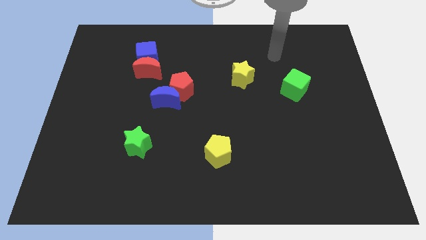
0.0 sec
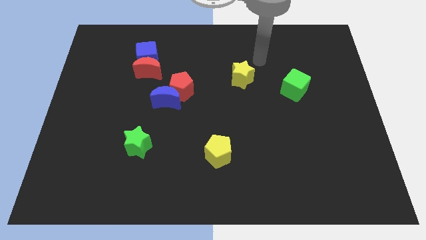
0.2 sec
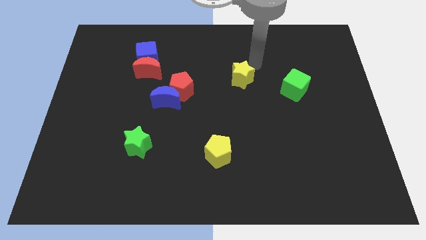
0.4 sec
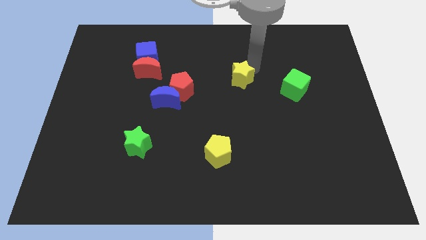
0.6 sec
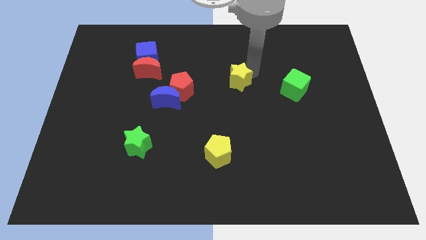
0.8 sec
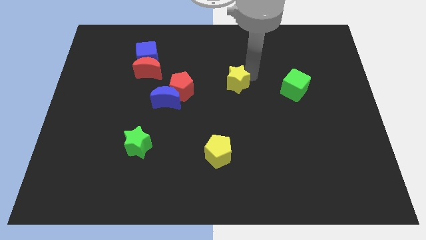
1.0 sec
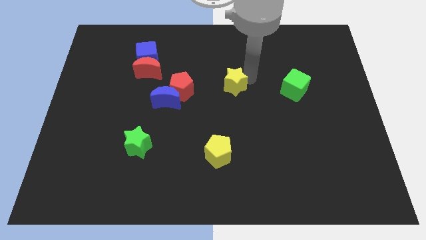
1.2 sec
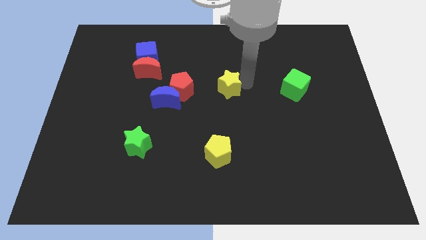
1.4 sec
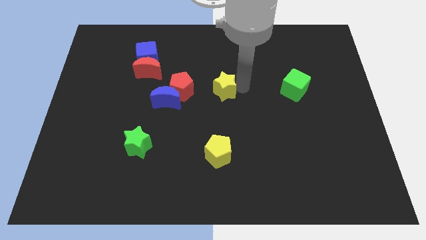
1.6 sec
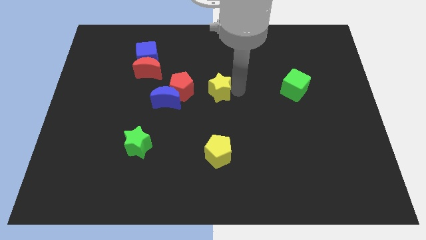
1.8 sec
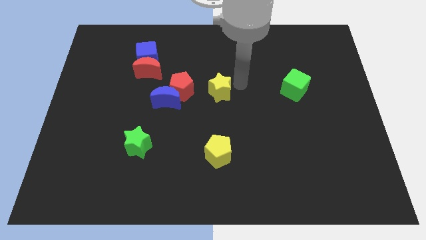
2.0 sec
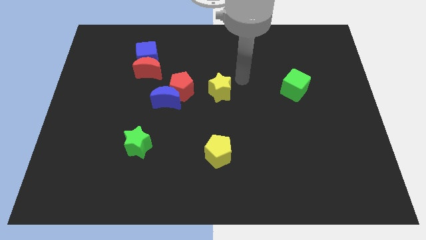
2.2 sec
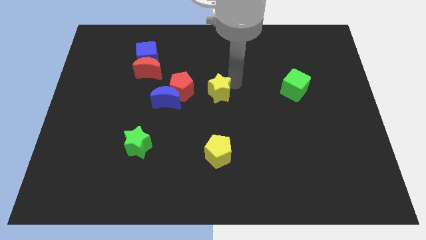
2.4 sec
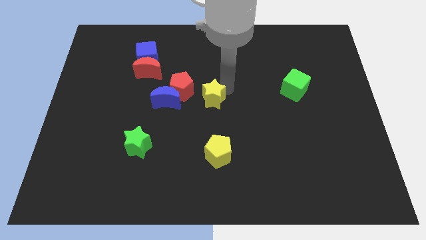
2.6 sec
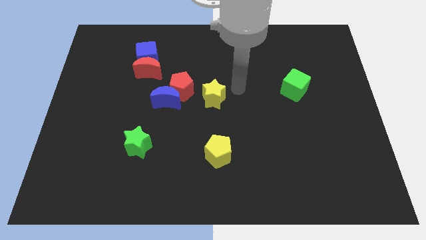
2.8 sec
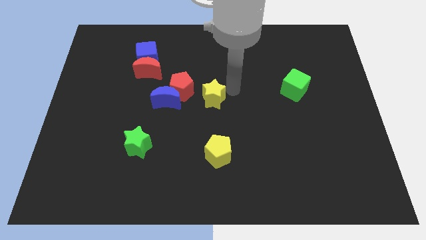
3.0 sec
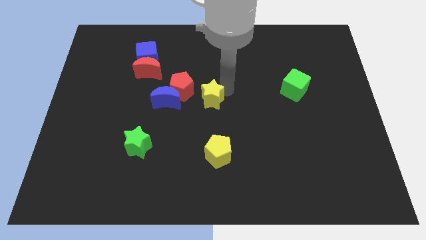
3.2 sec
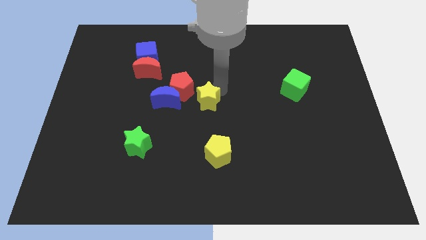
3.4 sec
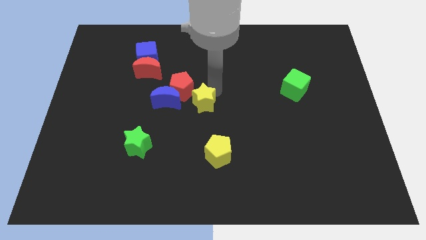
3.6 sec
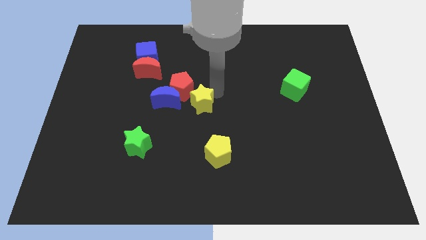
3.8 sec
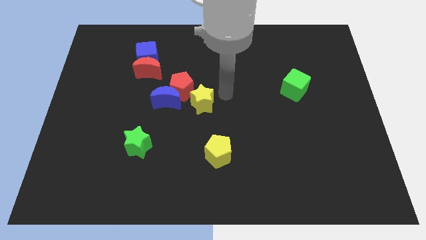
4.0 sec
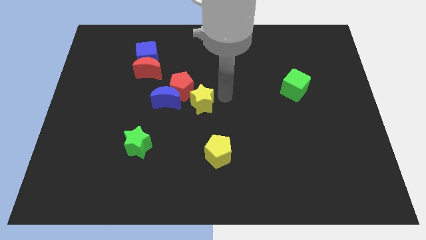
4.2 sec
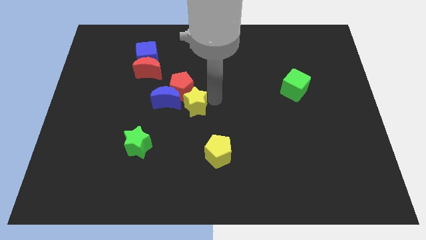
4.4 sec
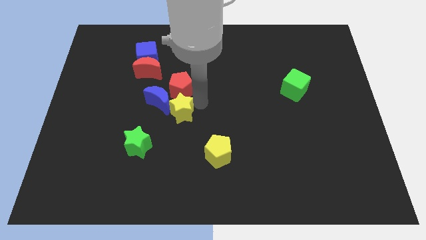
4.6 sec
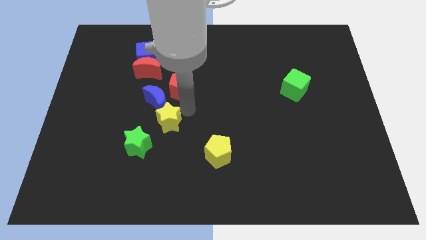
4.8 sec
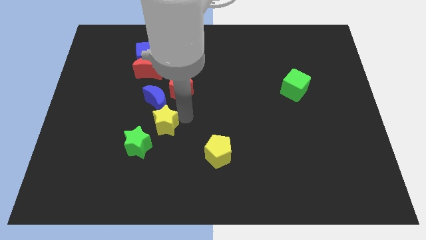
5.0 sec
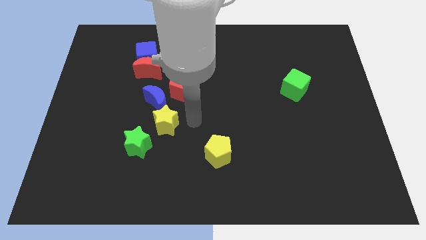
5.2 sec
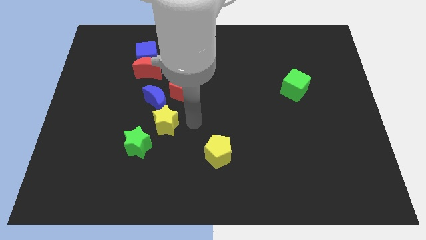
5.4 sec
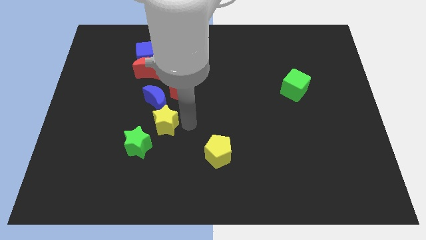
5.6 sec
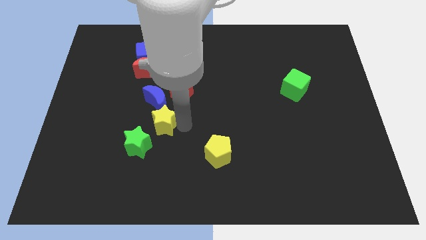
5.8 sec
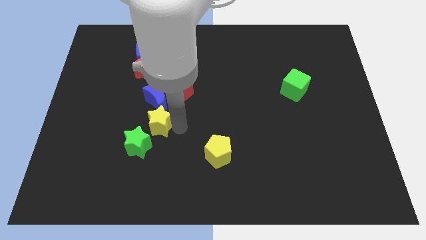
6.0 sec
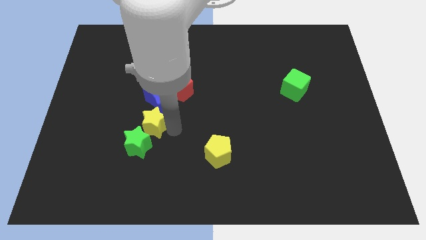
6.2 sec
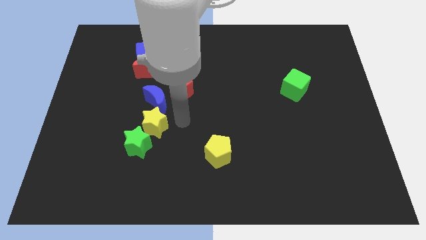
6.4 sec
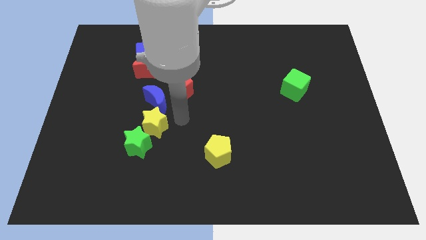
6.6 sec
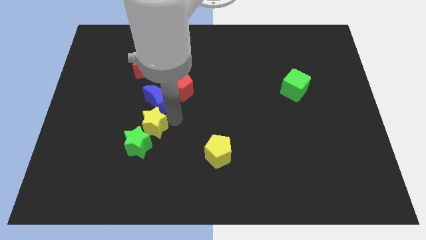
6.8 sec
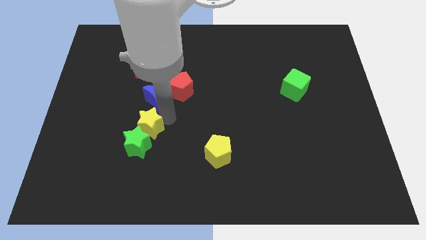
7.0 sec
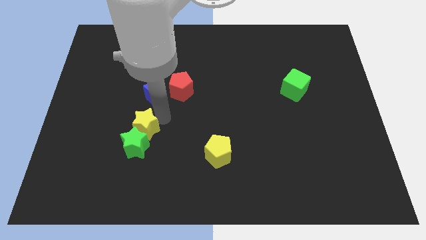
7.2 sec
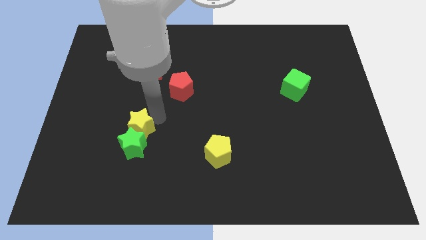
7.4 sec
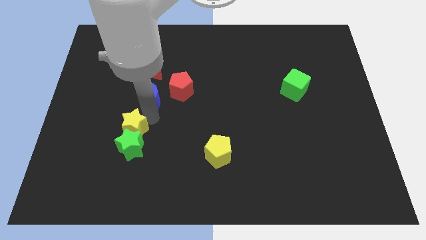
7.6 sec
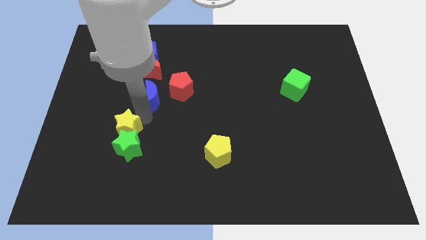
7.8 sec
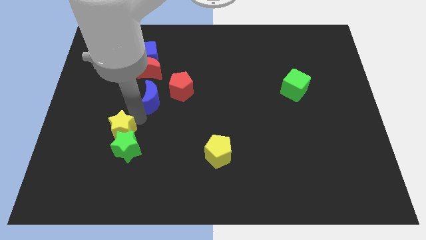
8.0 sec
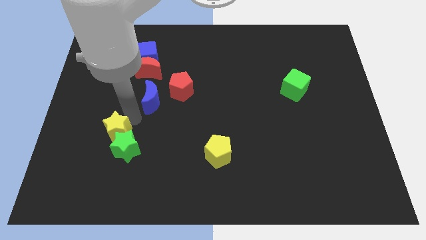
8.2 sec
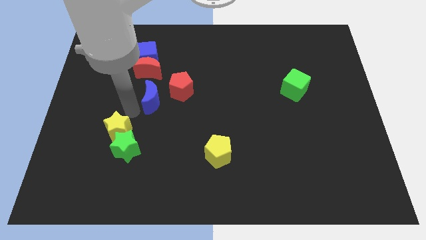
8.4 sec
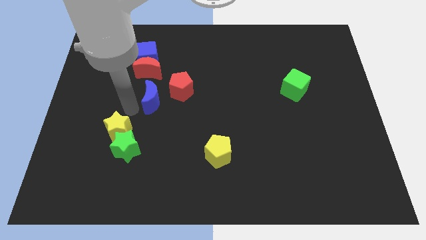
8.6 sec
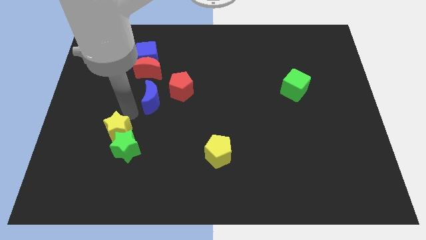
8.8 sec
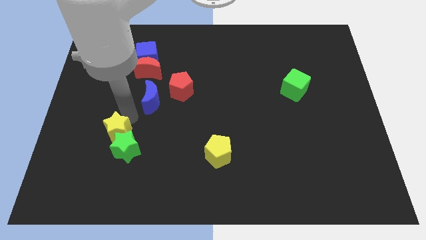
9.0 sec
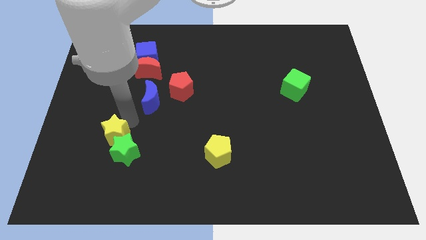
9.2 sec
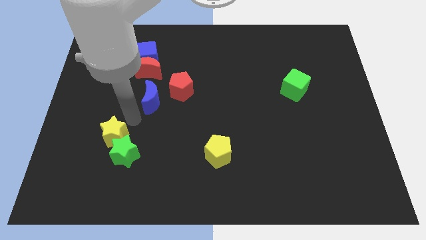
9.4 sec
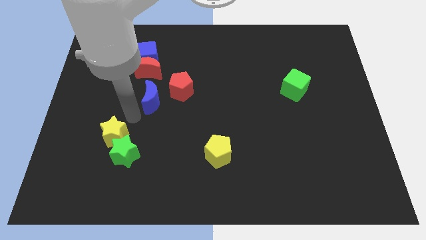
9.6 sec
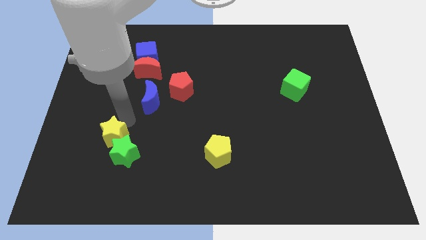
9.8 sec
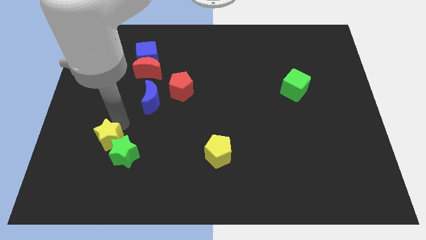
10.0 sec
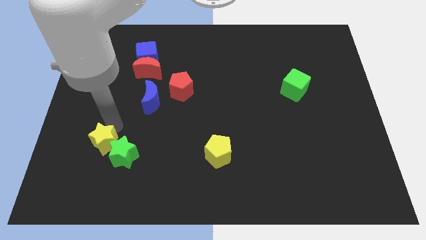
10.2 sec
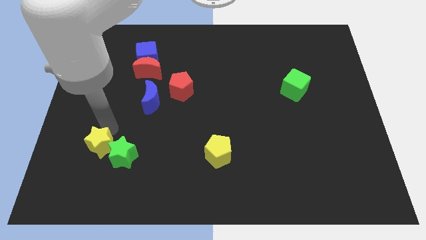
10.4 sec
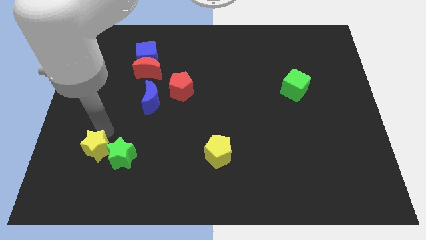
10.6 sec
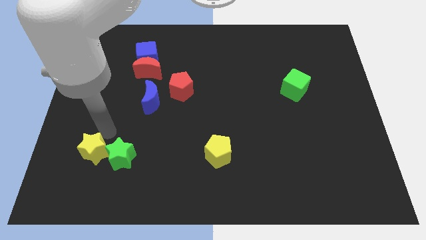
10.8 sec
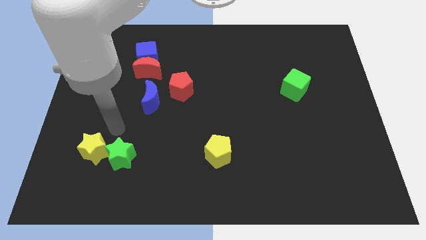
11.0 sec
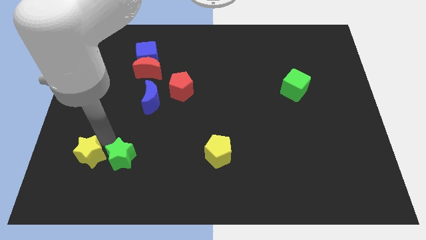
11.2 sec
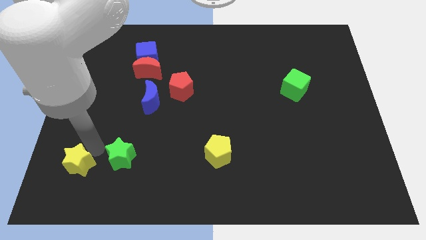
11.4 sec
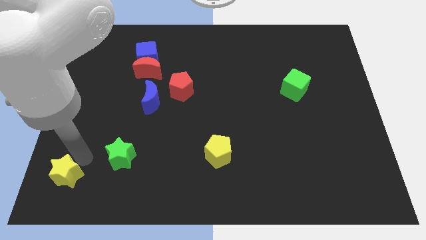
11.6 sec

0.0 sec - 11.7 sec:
put the yellow star to the bottom left

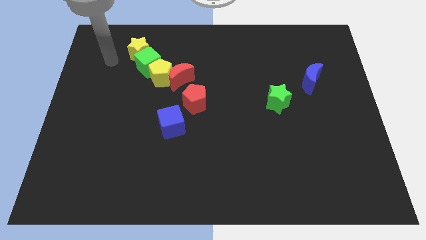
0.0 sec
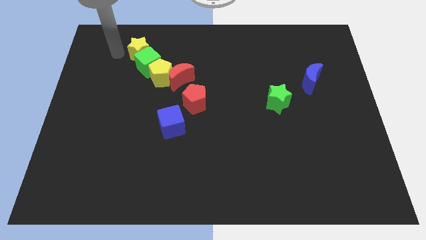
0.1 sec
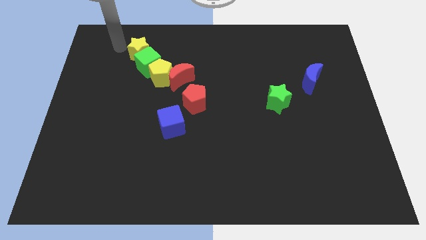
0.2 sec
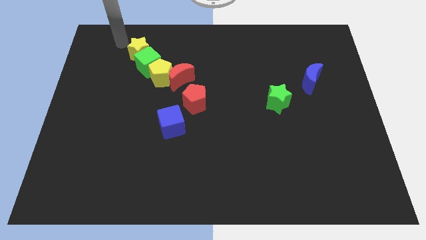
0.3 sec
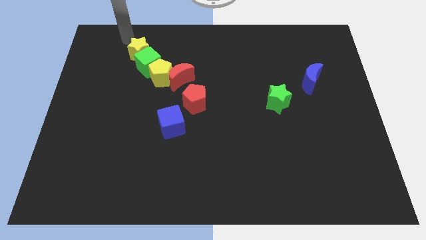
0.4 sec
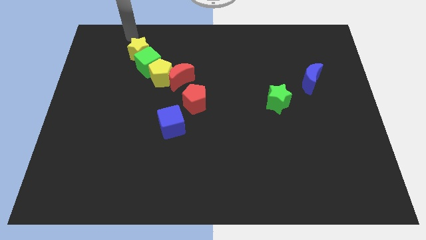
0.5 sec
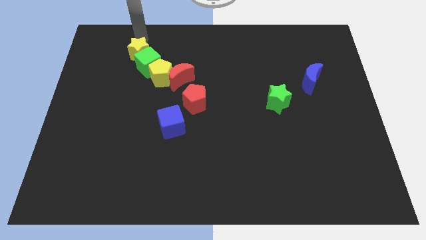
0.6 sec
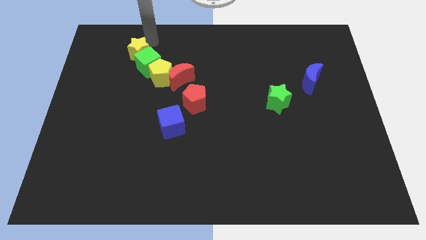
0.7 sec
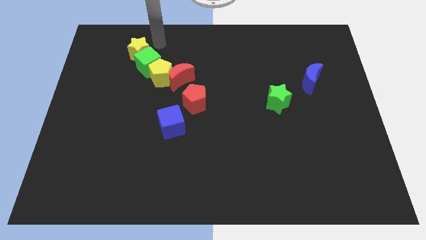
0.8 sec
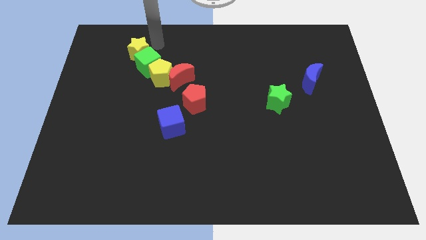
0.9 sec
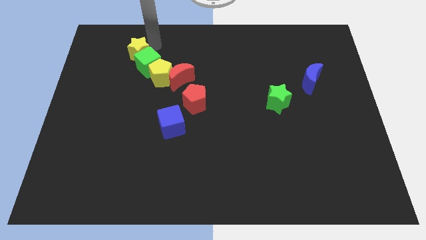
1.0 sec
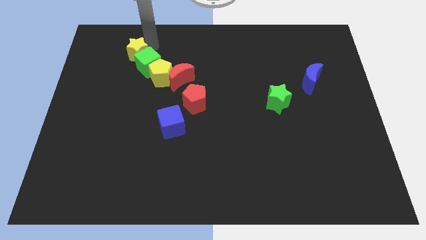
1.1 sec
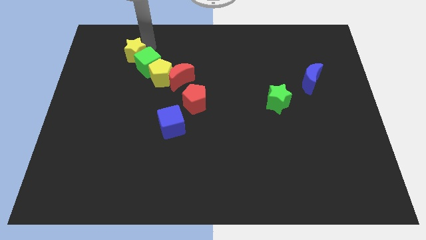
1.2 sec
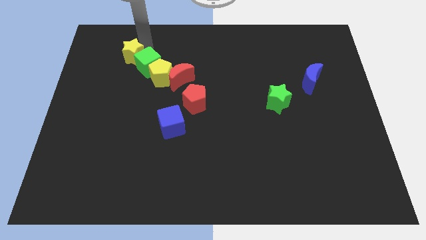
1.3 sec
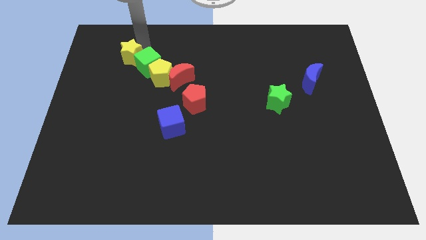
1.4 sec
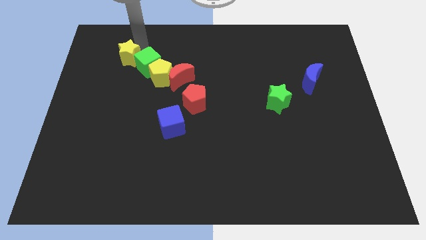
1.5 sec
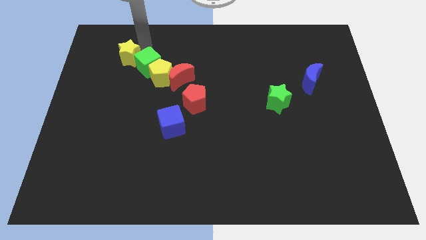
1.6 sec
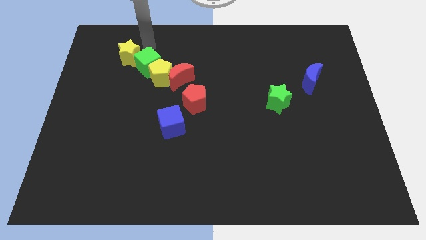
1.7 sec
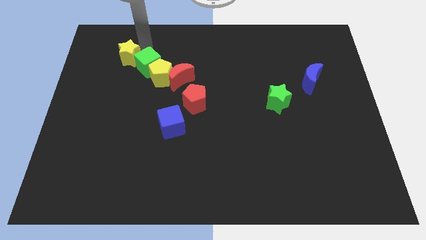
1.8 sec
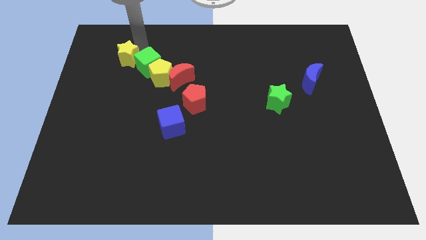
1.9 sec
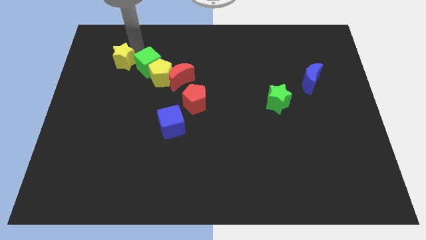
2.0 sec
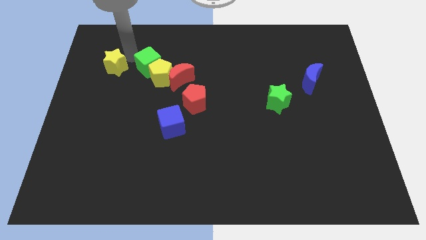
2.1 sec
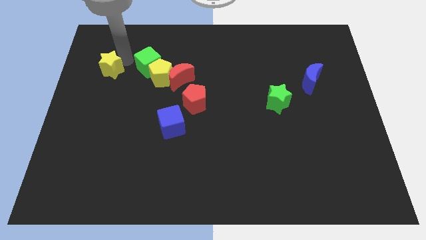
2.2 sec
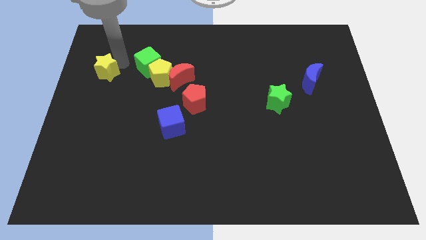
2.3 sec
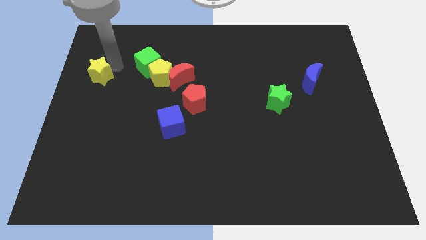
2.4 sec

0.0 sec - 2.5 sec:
slide the yellow star to the left side
